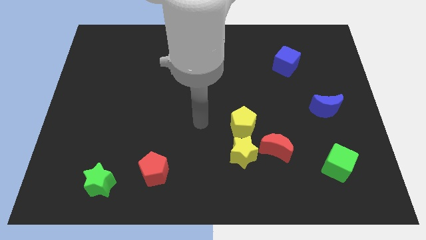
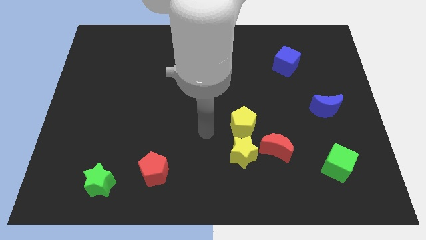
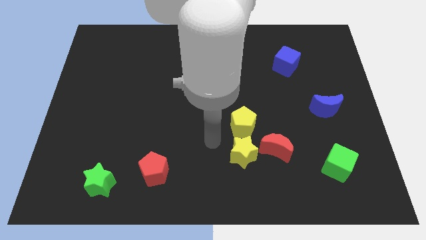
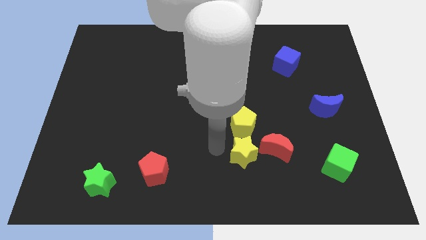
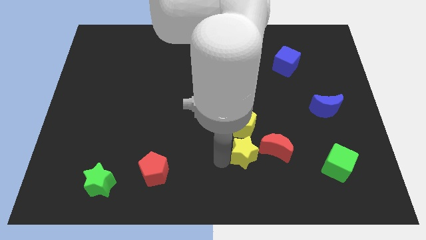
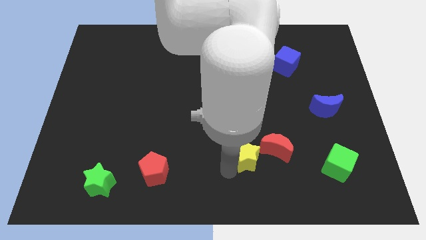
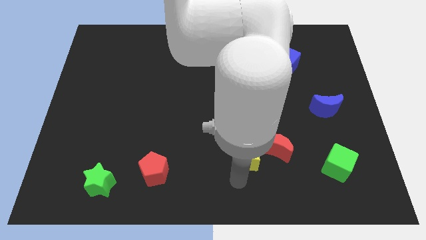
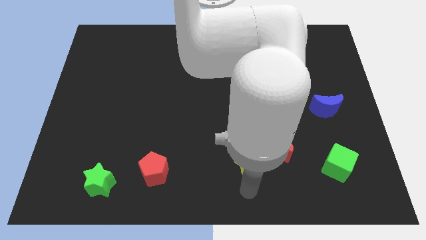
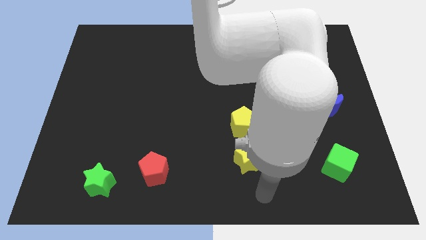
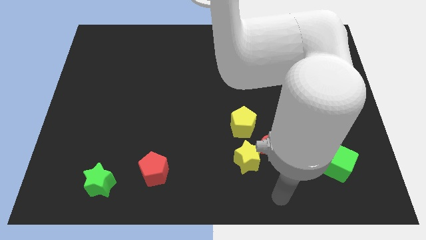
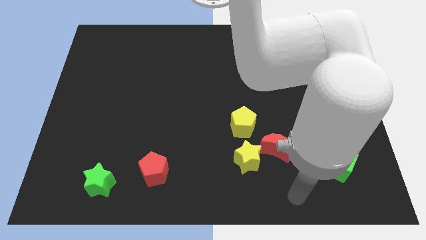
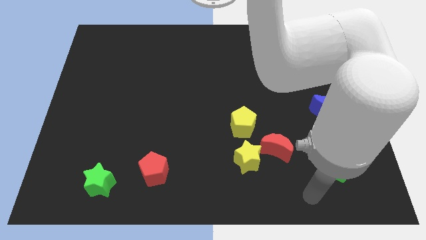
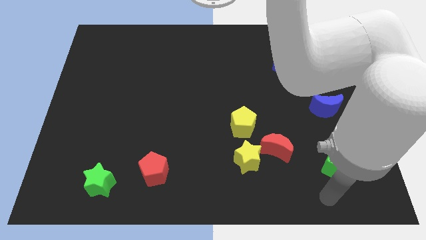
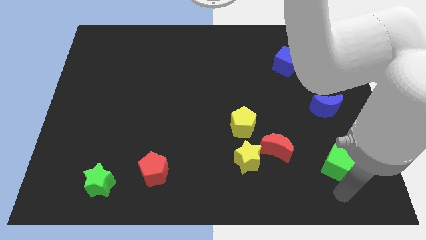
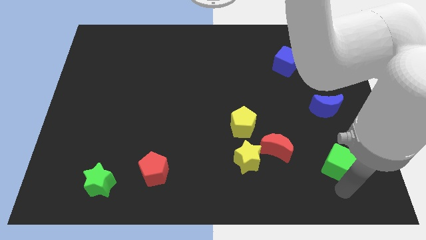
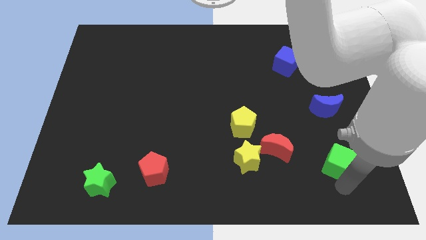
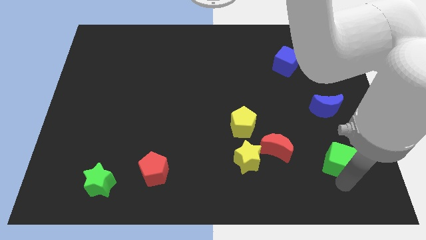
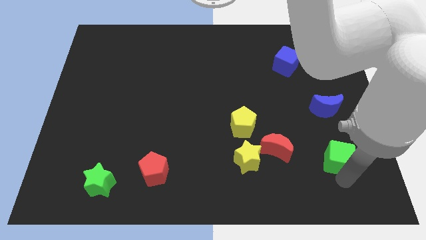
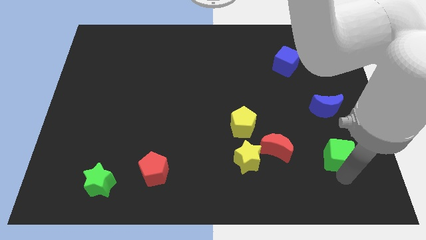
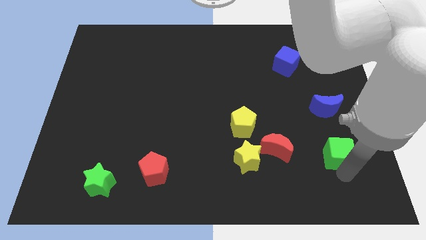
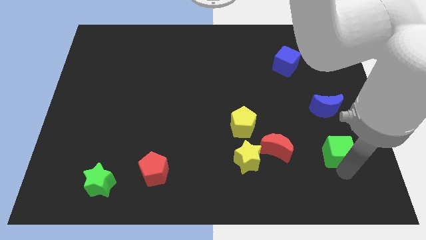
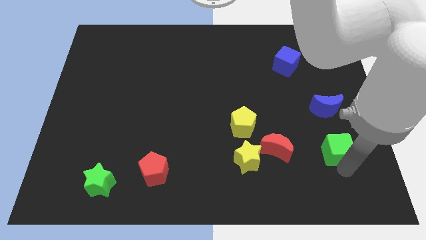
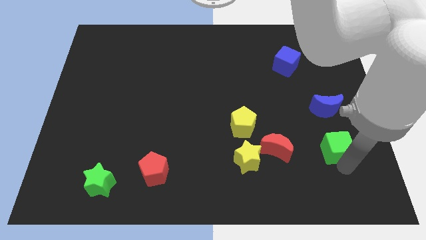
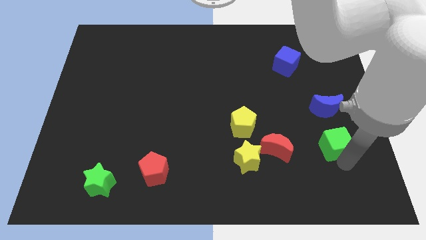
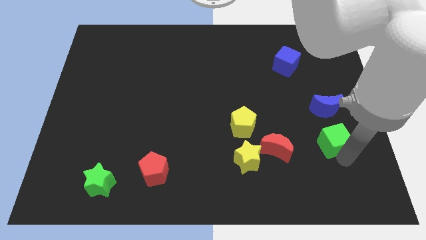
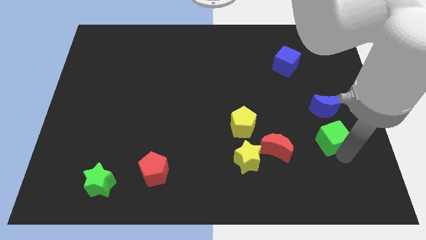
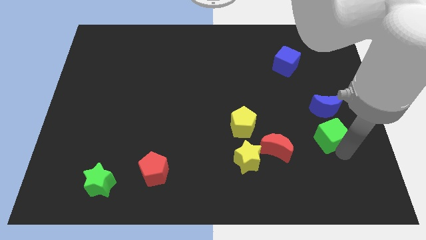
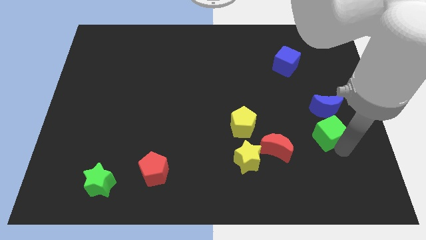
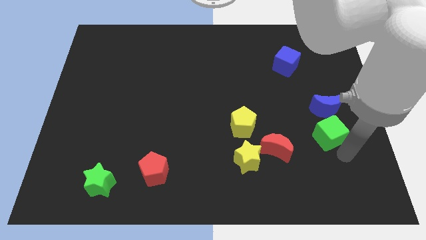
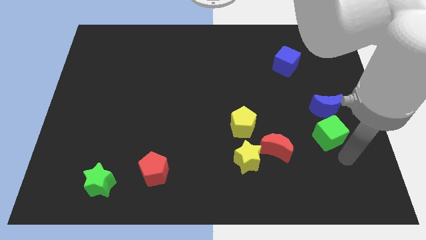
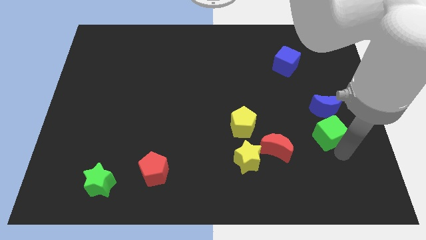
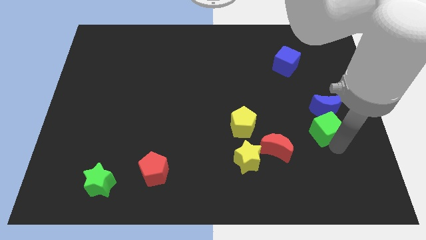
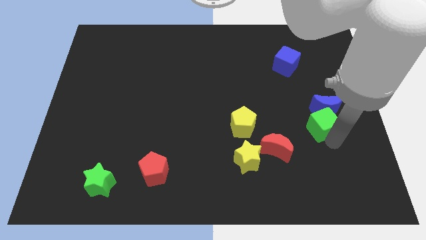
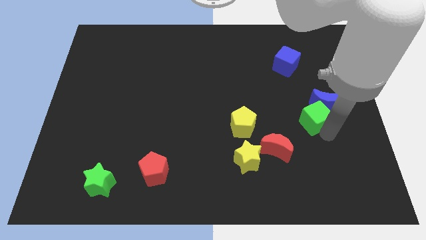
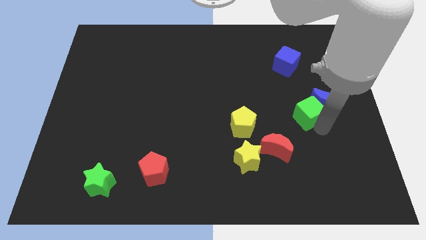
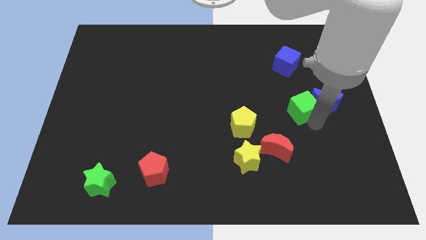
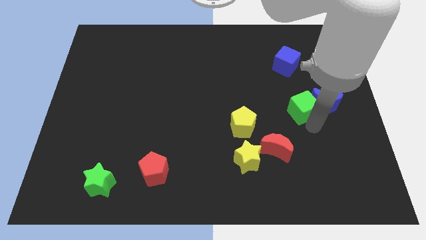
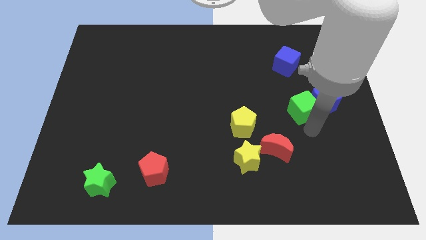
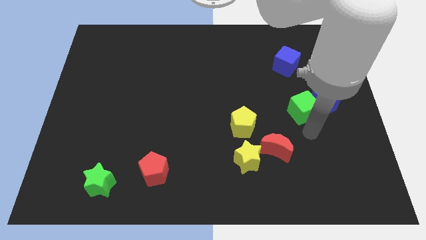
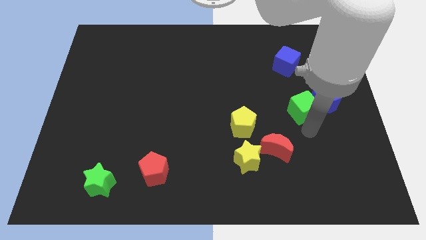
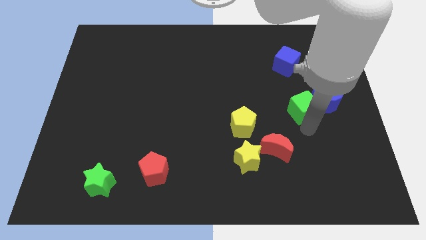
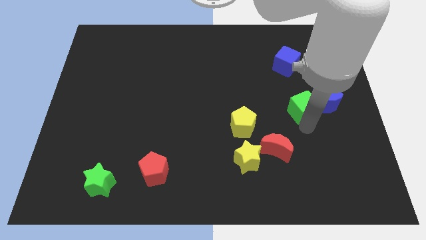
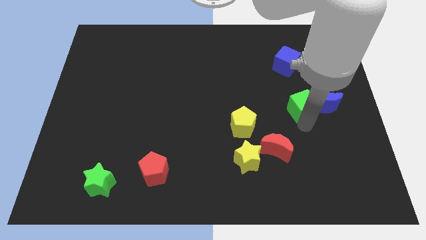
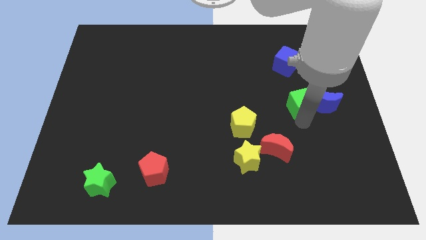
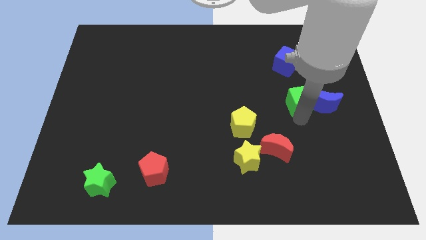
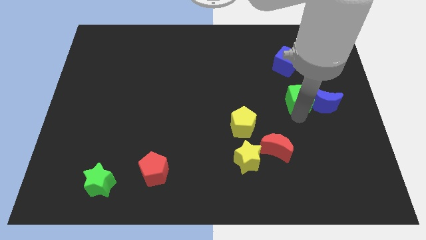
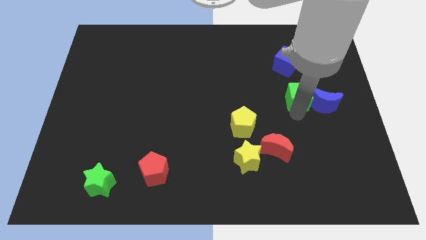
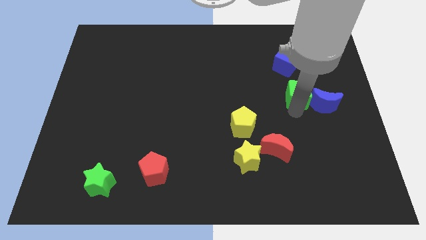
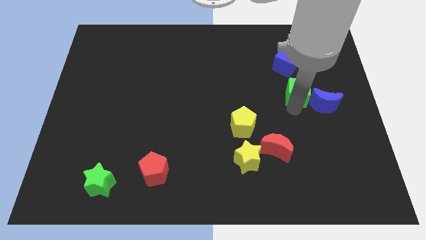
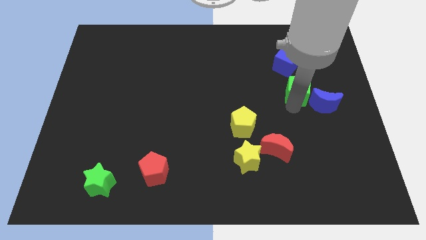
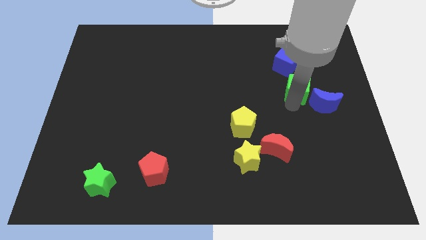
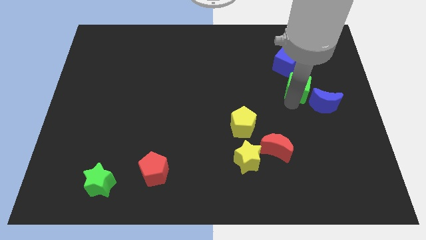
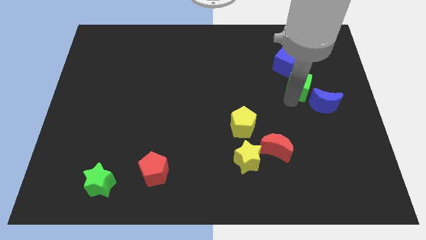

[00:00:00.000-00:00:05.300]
move the green cube upwards

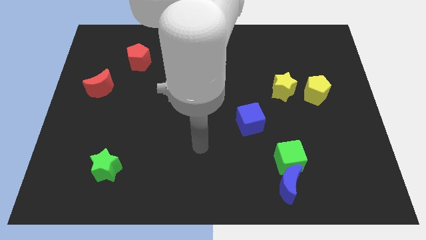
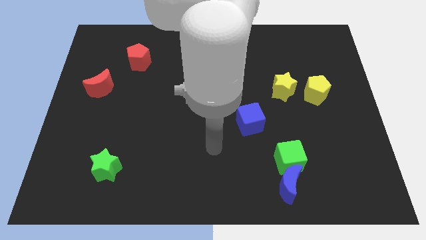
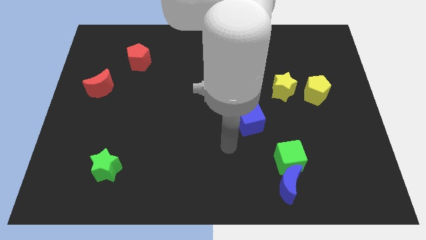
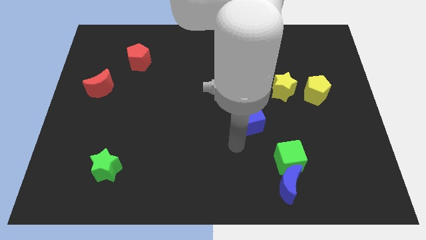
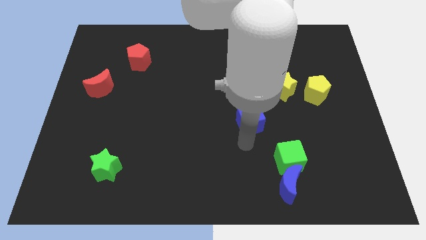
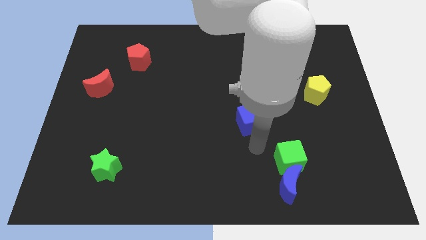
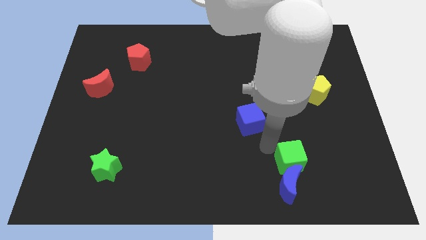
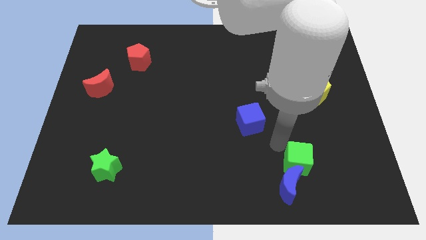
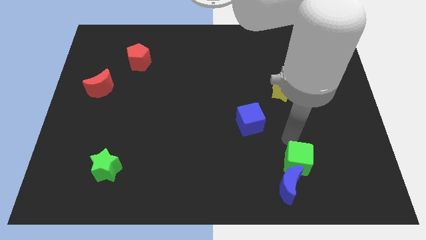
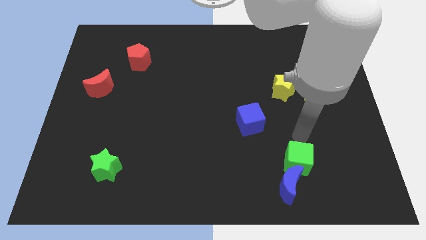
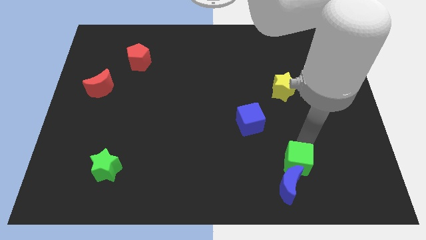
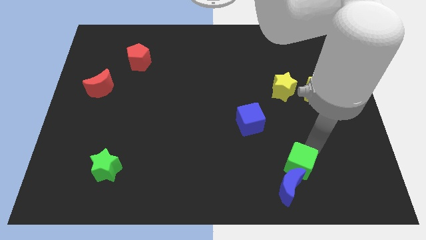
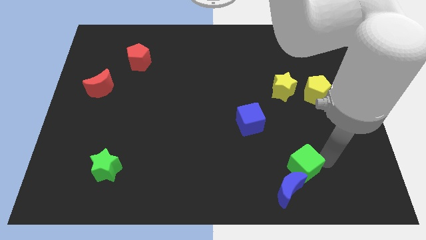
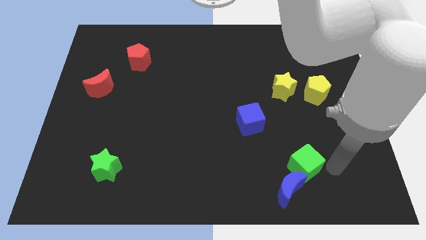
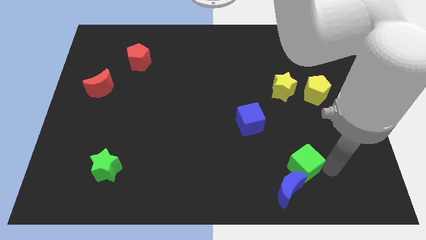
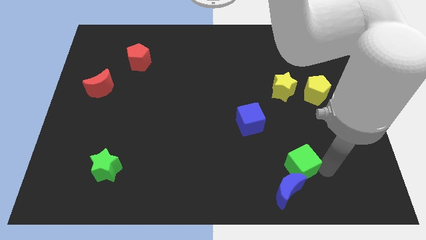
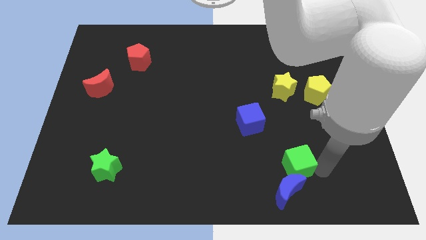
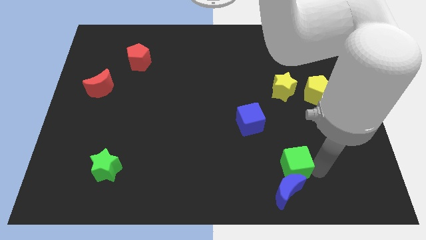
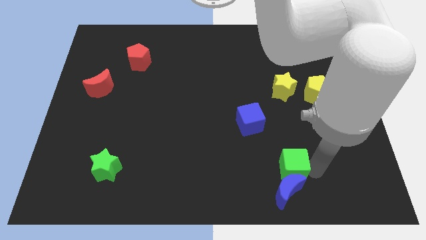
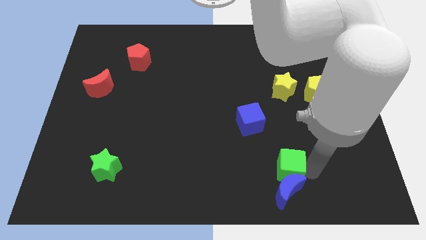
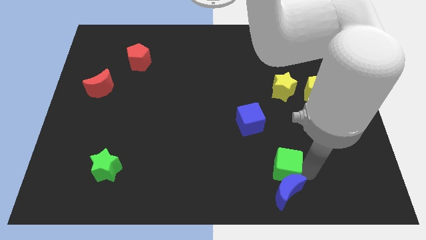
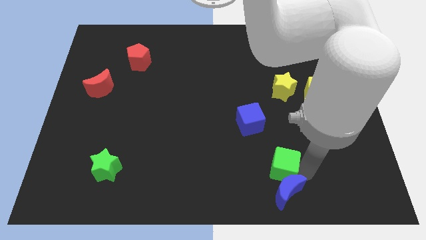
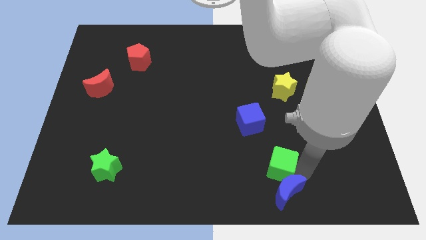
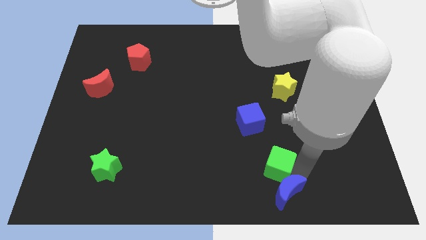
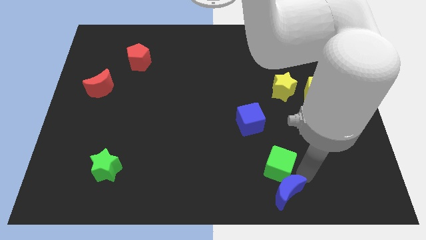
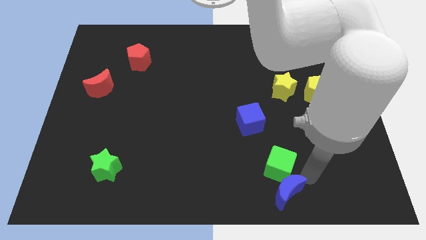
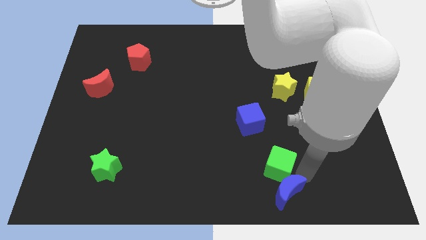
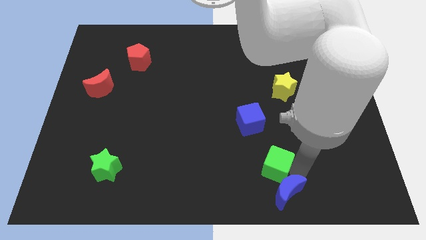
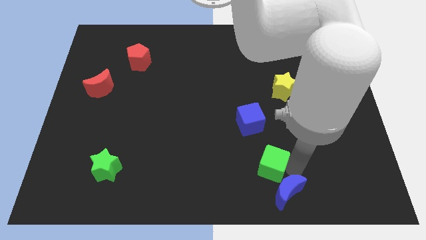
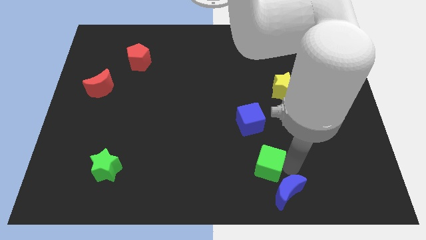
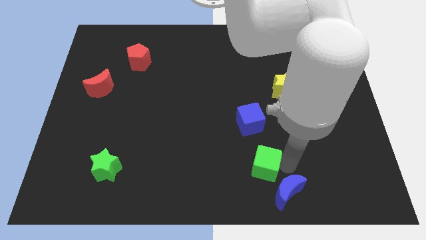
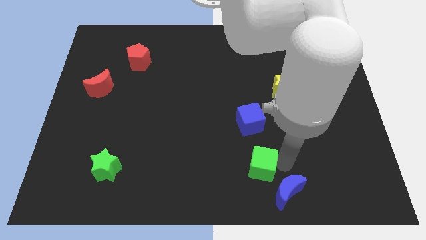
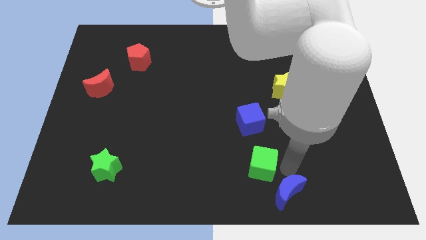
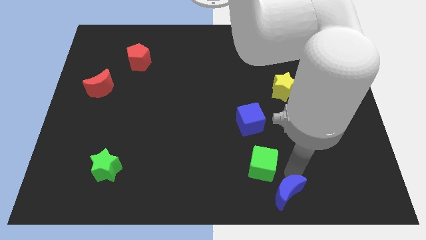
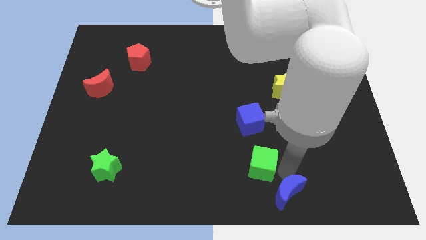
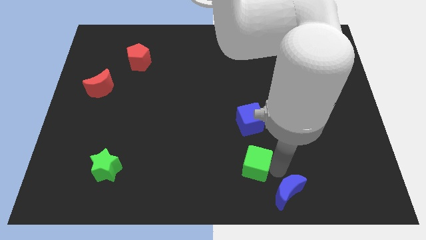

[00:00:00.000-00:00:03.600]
slightly push the green cube left
